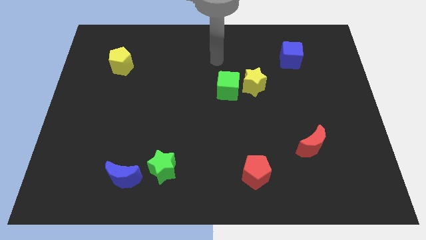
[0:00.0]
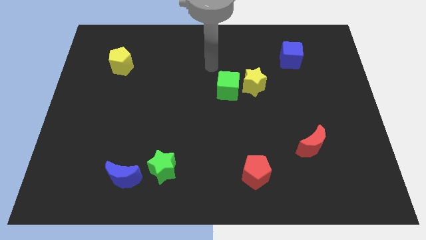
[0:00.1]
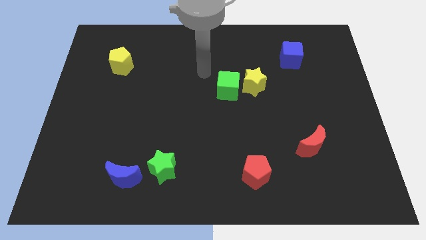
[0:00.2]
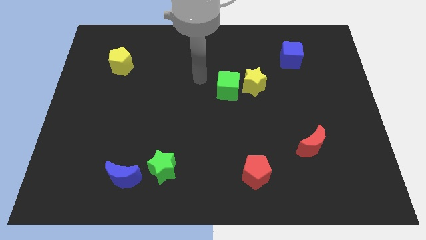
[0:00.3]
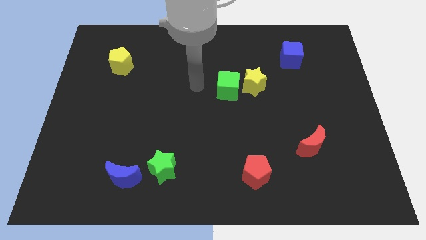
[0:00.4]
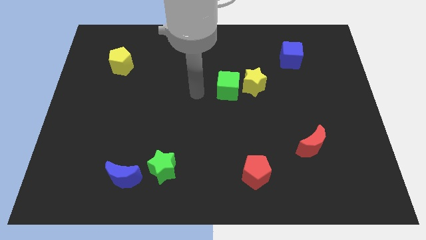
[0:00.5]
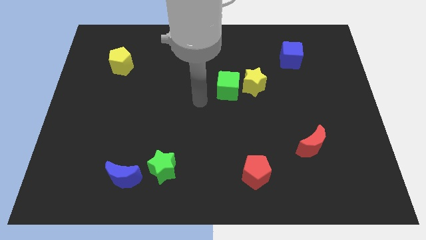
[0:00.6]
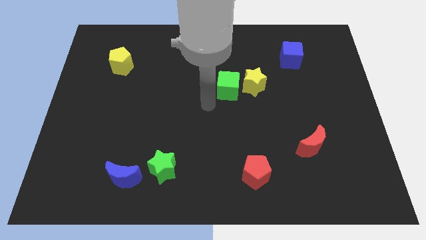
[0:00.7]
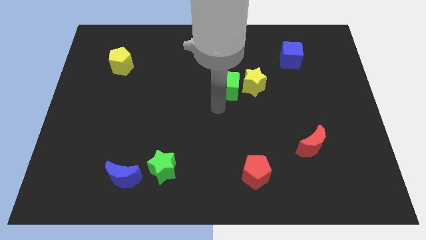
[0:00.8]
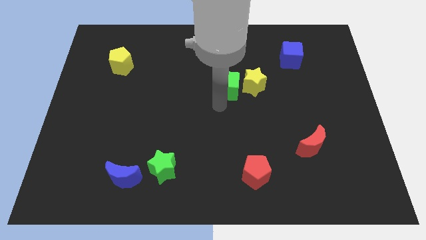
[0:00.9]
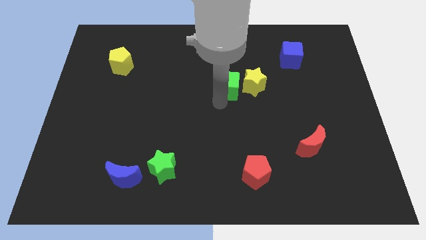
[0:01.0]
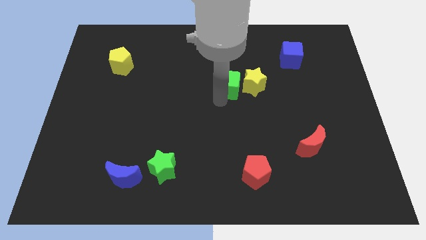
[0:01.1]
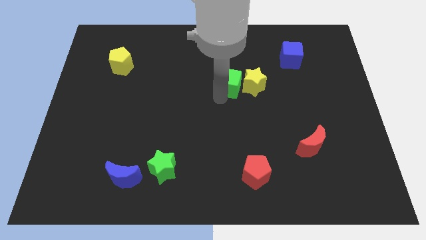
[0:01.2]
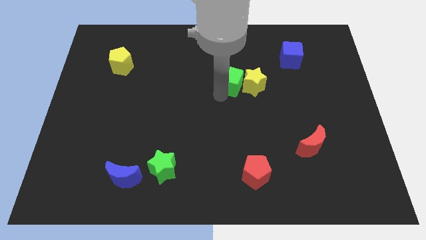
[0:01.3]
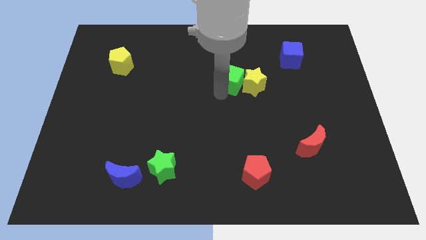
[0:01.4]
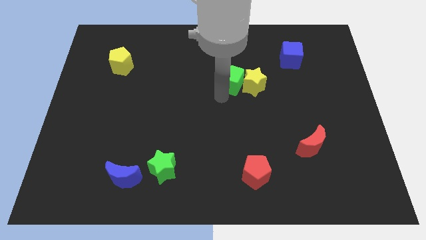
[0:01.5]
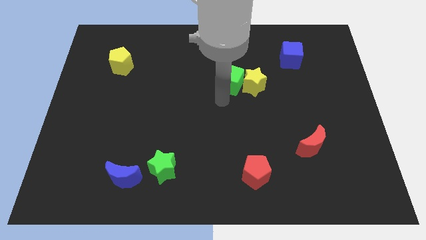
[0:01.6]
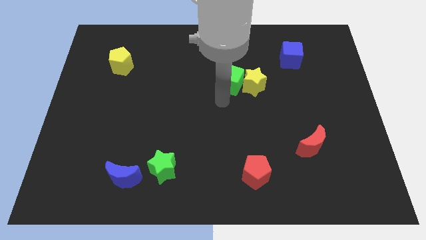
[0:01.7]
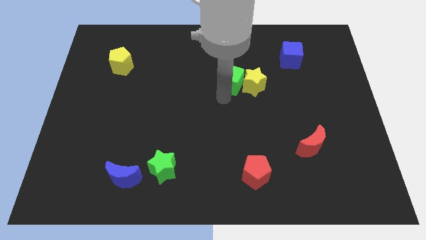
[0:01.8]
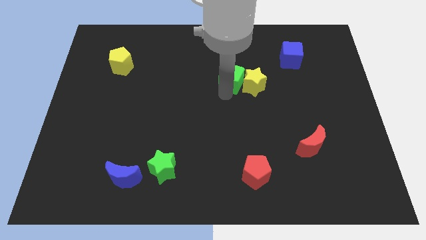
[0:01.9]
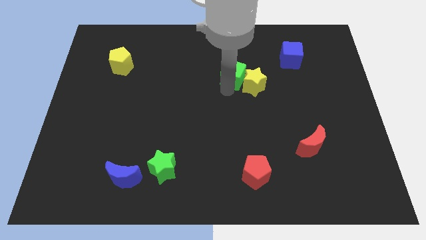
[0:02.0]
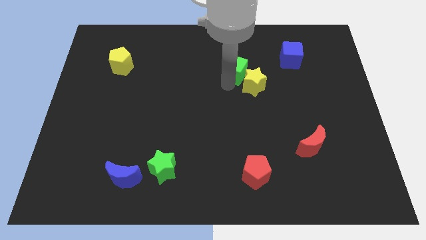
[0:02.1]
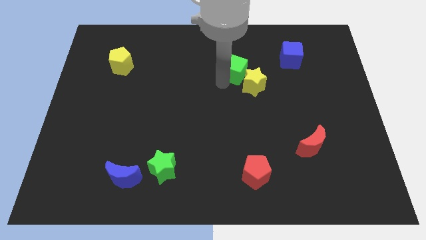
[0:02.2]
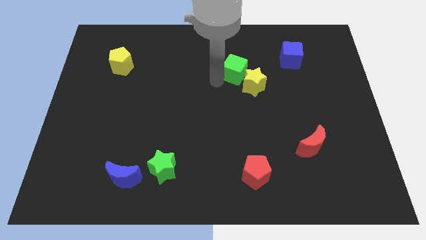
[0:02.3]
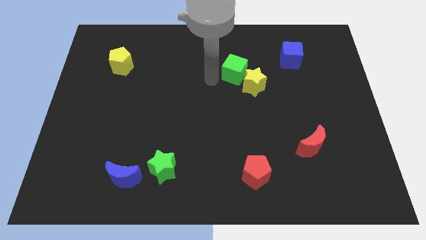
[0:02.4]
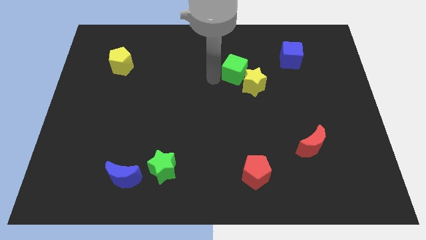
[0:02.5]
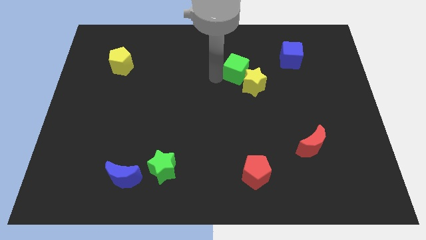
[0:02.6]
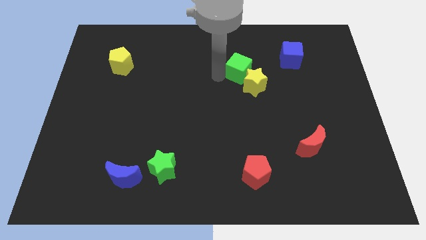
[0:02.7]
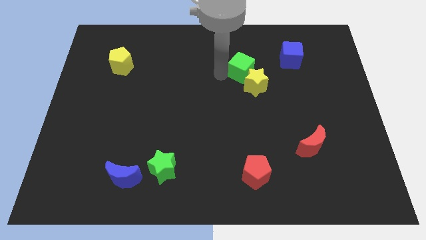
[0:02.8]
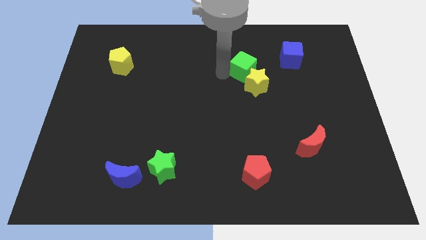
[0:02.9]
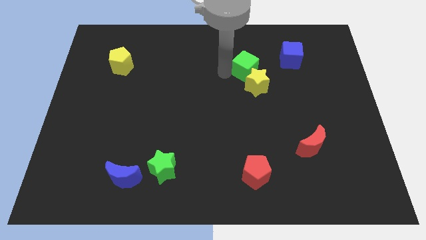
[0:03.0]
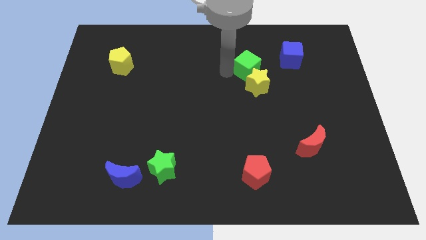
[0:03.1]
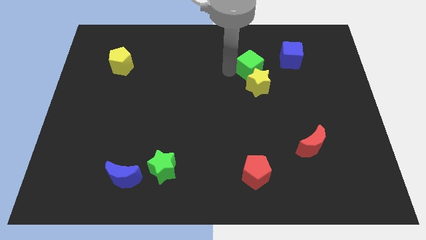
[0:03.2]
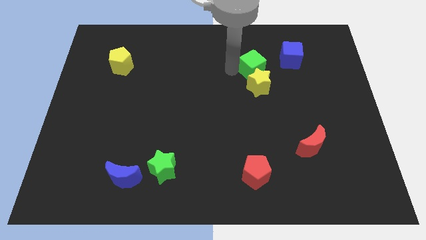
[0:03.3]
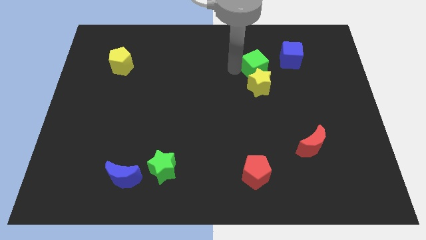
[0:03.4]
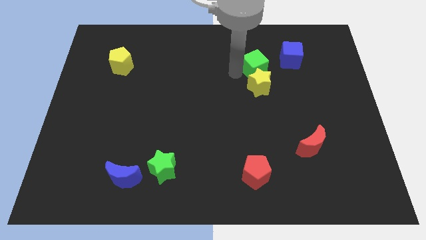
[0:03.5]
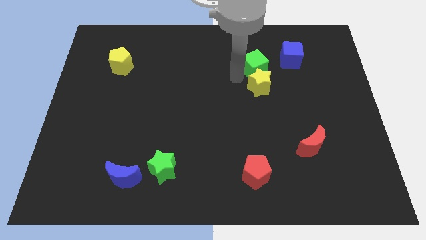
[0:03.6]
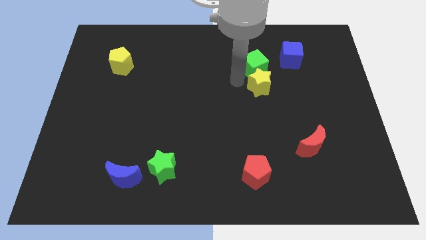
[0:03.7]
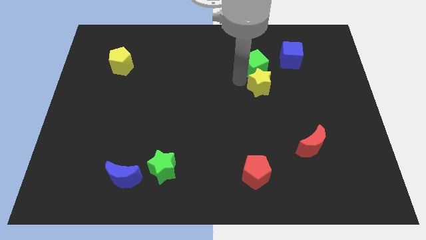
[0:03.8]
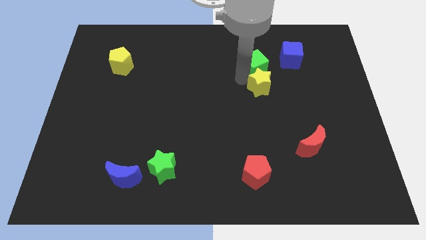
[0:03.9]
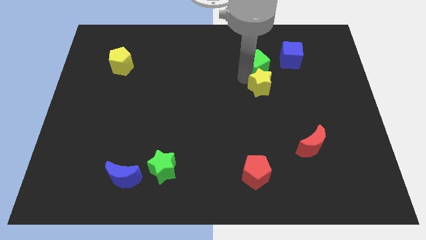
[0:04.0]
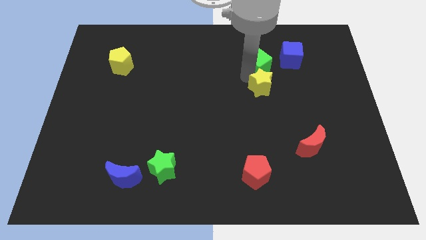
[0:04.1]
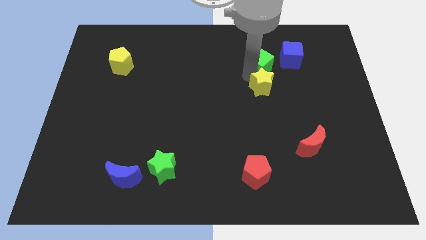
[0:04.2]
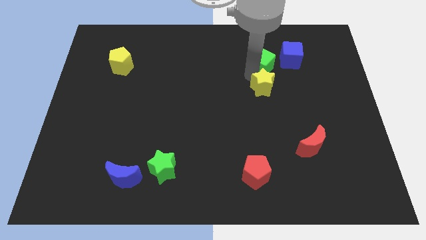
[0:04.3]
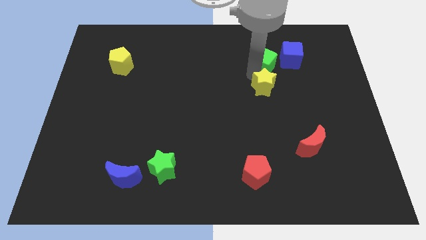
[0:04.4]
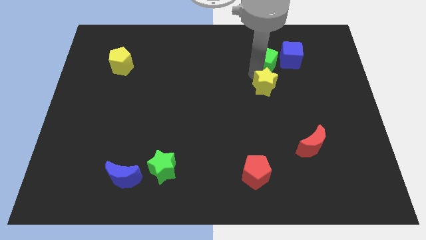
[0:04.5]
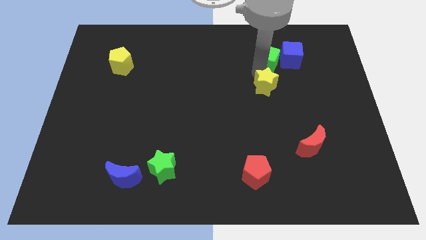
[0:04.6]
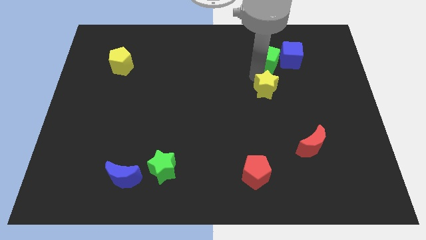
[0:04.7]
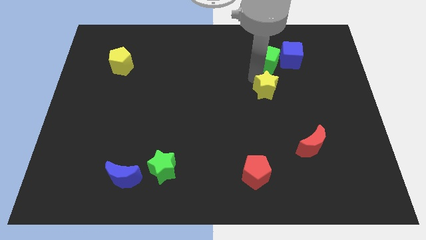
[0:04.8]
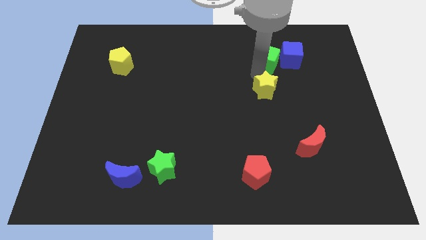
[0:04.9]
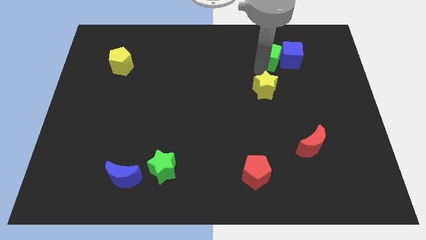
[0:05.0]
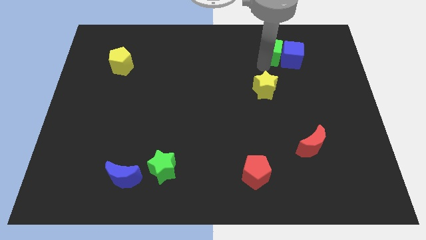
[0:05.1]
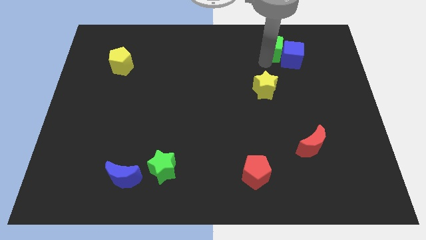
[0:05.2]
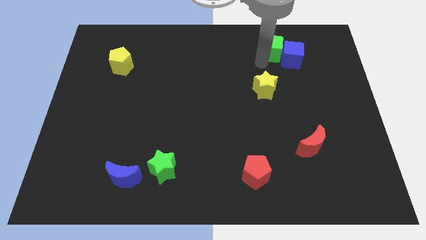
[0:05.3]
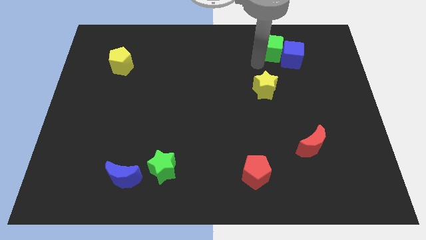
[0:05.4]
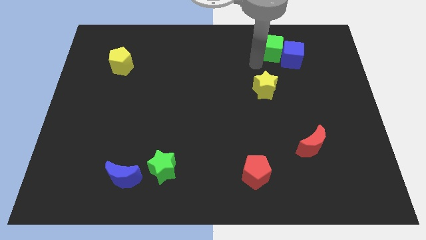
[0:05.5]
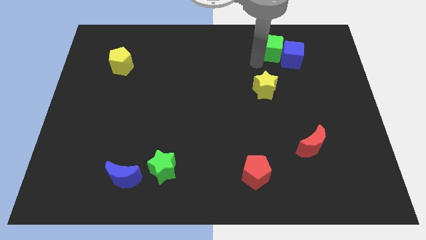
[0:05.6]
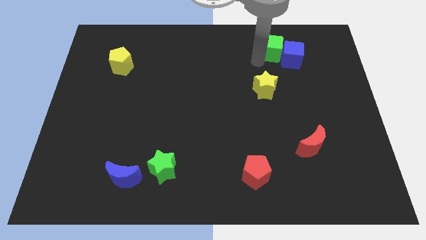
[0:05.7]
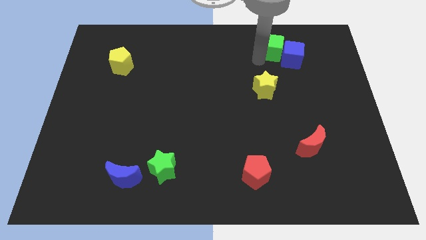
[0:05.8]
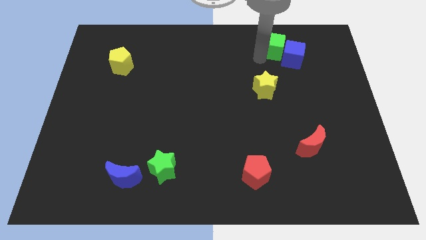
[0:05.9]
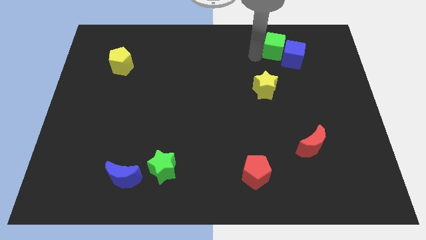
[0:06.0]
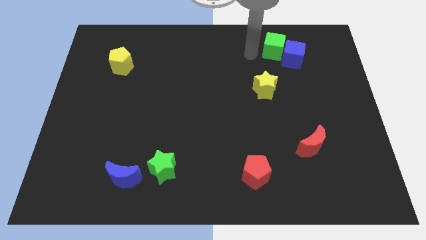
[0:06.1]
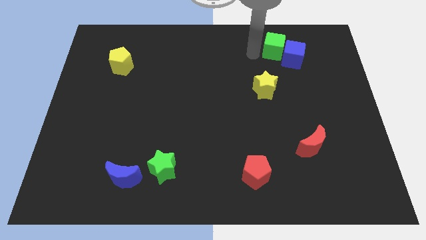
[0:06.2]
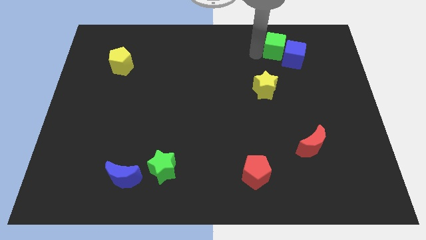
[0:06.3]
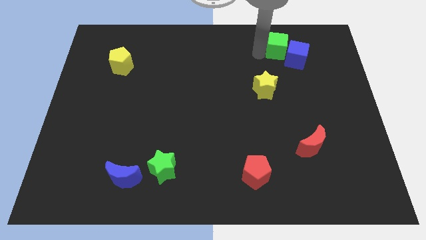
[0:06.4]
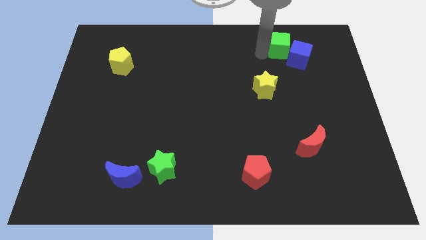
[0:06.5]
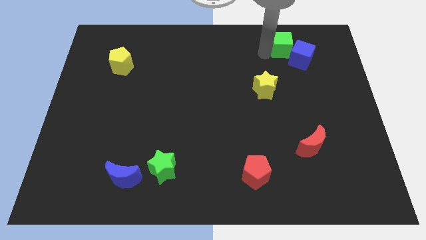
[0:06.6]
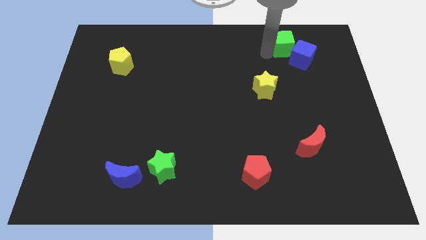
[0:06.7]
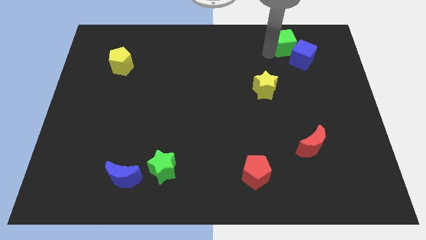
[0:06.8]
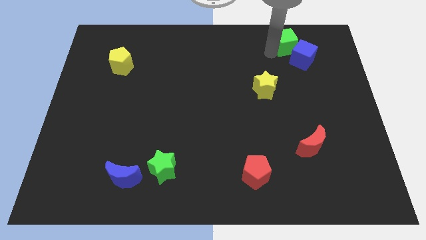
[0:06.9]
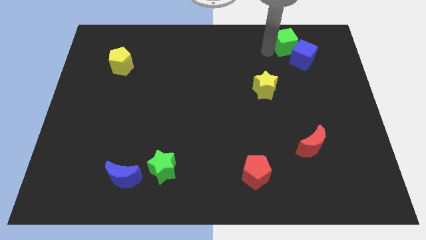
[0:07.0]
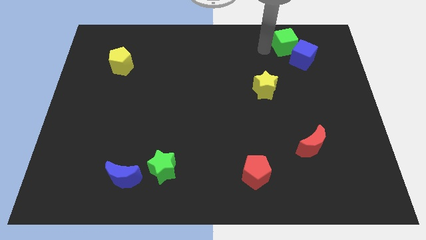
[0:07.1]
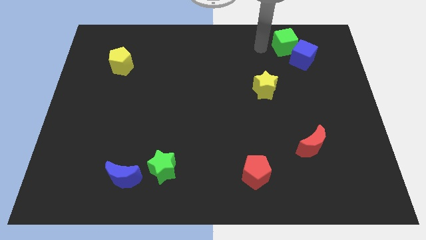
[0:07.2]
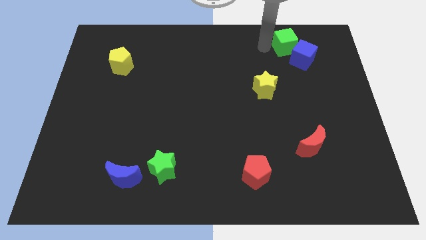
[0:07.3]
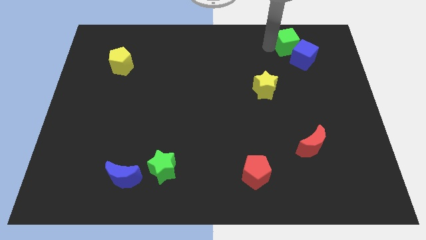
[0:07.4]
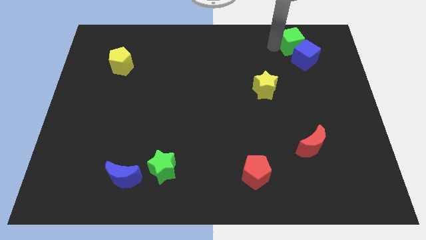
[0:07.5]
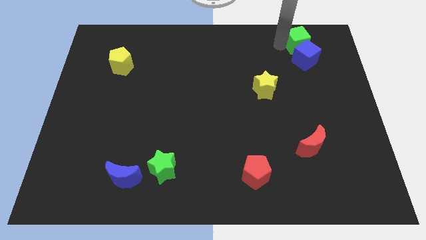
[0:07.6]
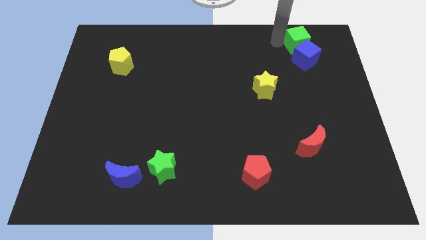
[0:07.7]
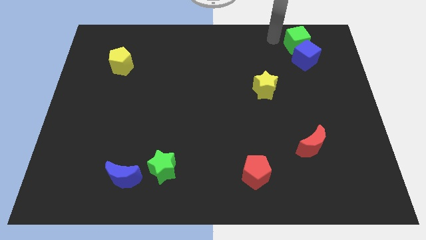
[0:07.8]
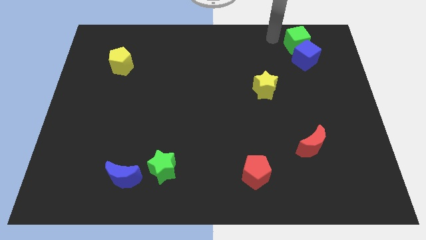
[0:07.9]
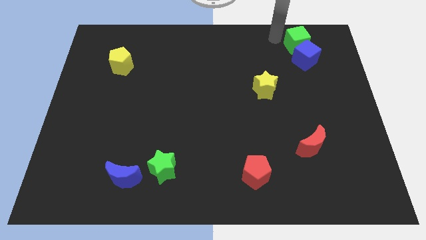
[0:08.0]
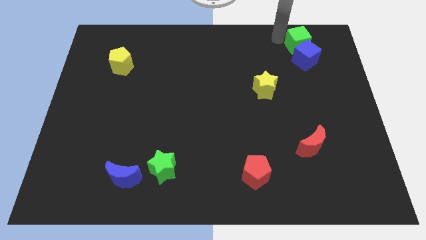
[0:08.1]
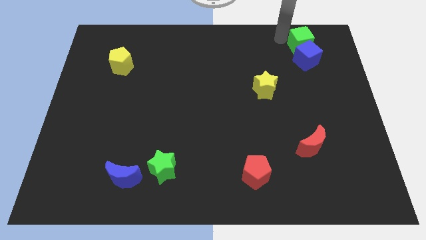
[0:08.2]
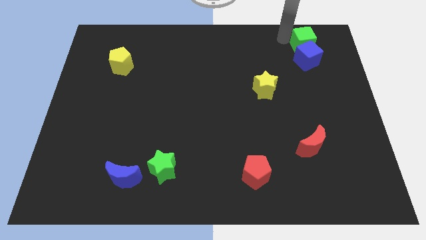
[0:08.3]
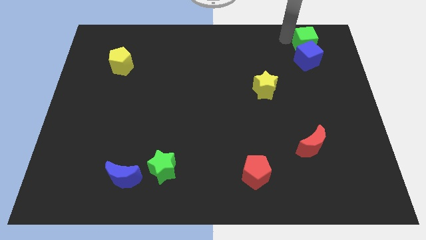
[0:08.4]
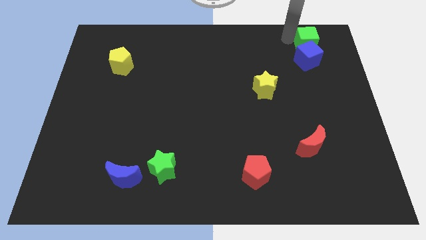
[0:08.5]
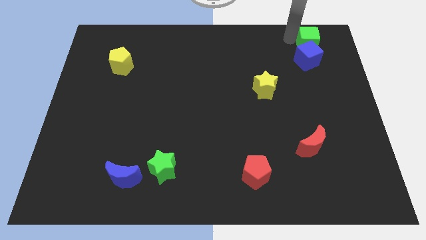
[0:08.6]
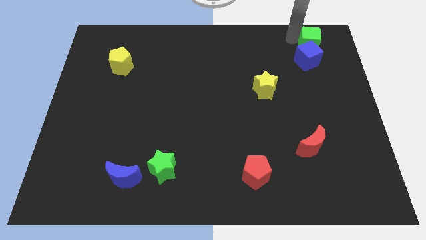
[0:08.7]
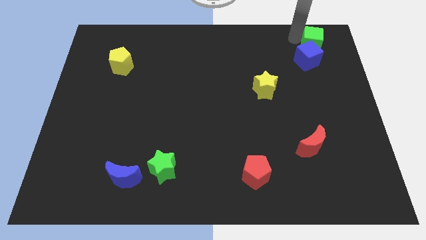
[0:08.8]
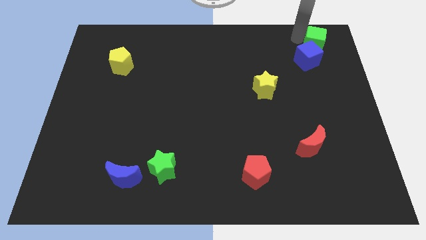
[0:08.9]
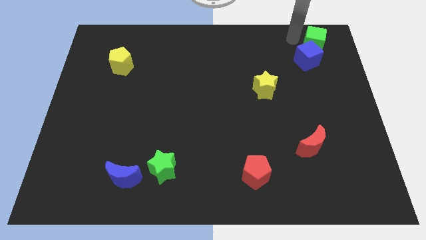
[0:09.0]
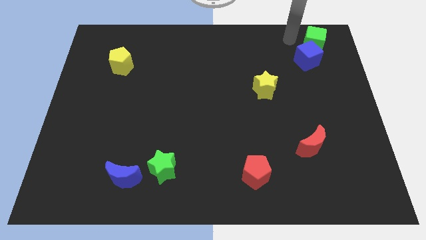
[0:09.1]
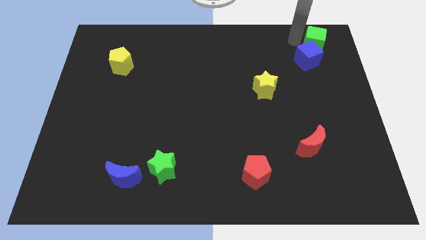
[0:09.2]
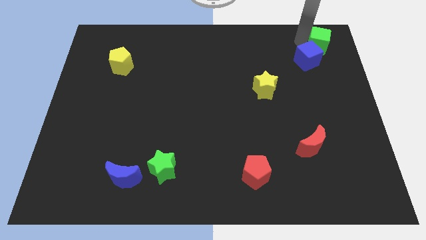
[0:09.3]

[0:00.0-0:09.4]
push the green cube to the top right
